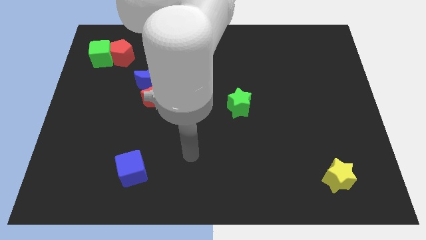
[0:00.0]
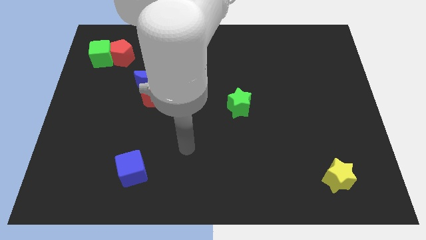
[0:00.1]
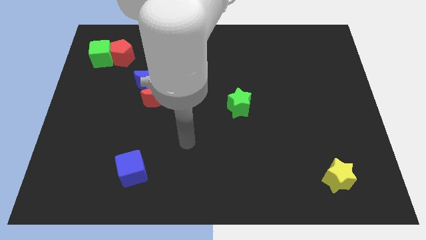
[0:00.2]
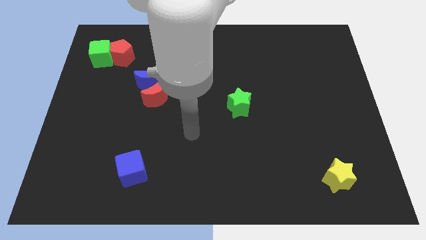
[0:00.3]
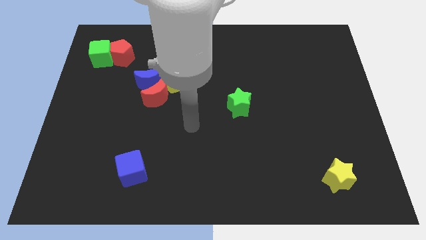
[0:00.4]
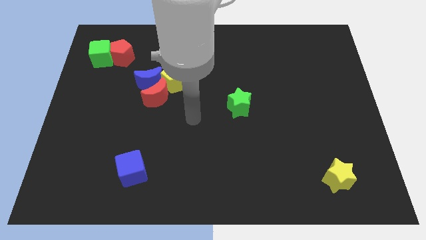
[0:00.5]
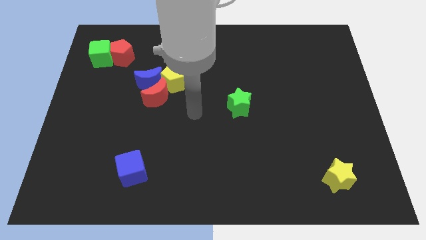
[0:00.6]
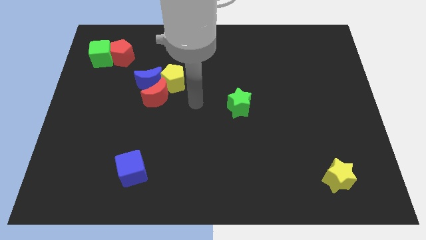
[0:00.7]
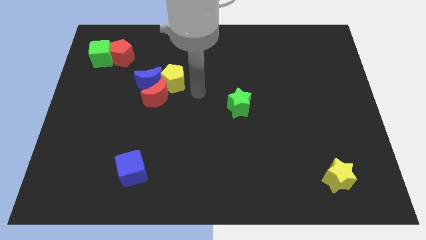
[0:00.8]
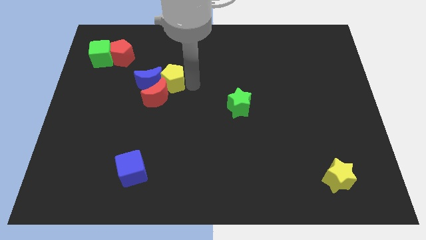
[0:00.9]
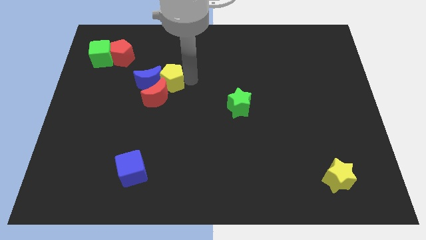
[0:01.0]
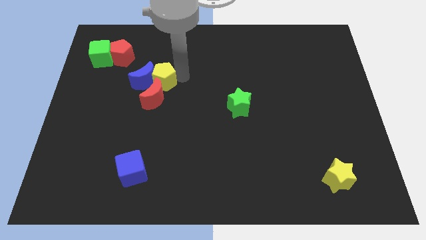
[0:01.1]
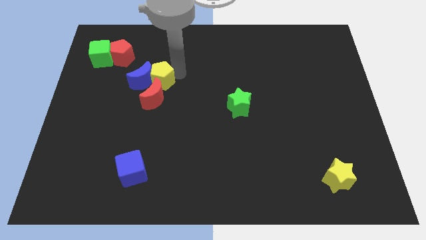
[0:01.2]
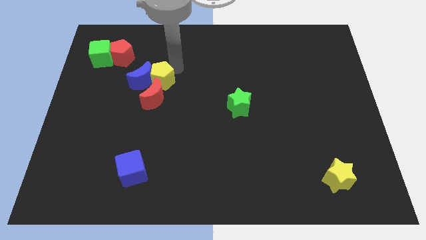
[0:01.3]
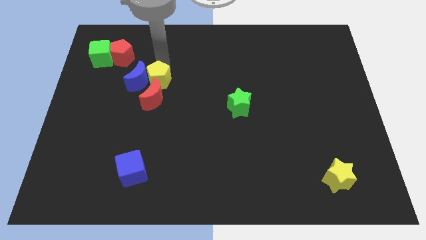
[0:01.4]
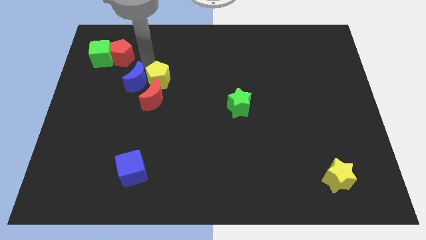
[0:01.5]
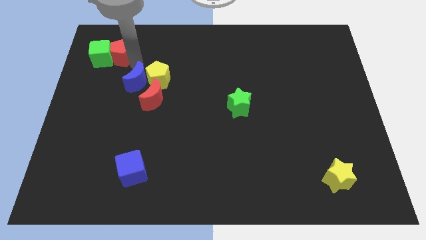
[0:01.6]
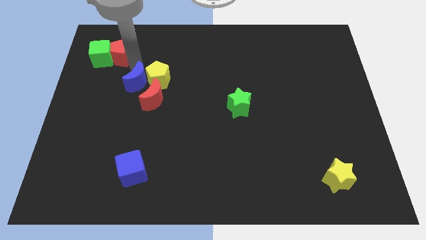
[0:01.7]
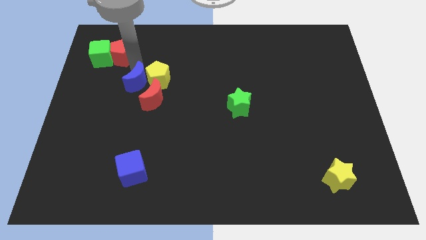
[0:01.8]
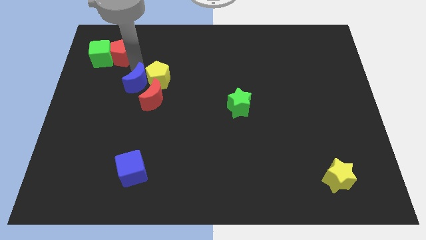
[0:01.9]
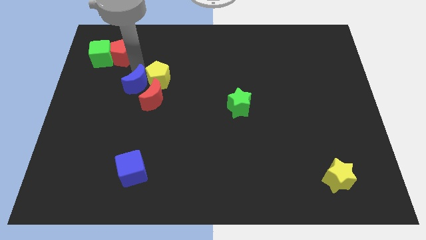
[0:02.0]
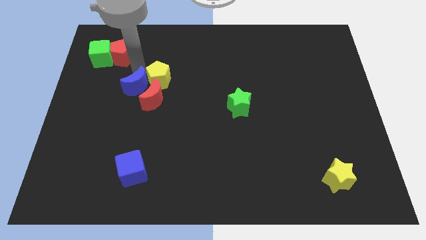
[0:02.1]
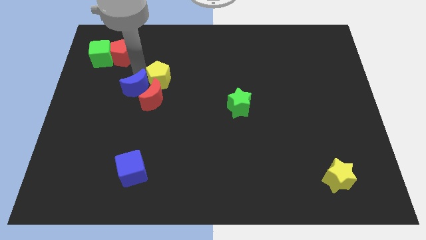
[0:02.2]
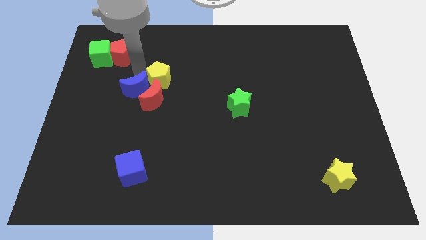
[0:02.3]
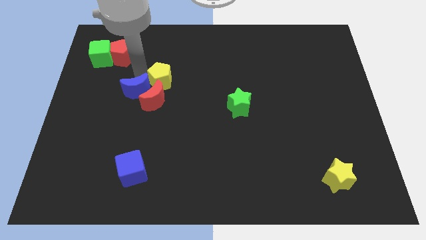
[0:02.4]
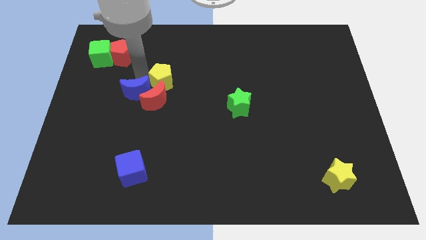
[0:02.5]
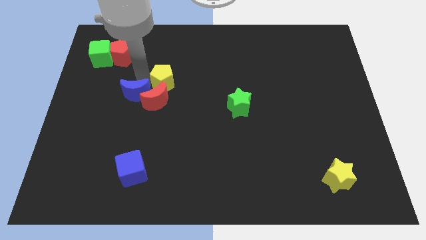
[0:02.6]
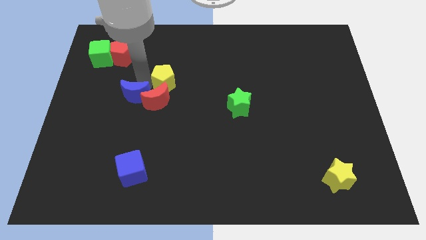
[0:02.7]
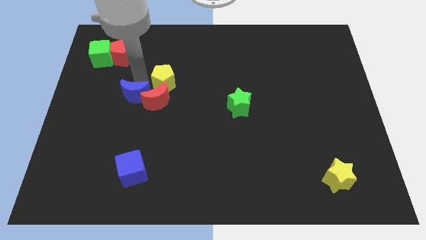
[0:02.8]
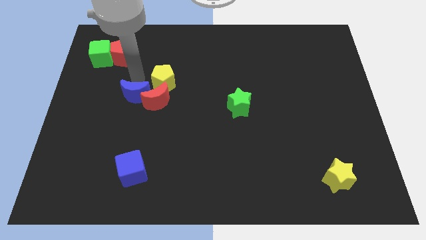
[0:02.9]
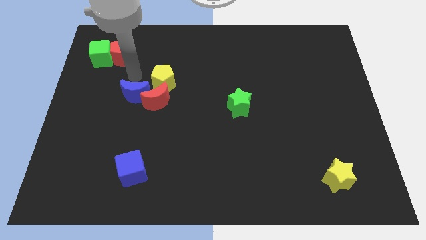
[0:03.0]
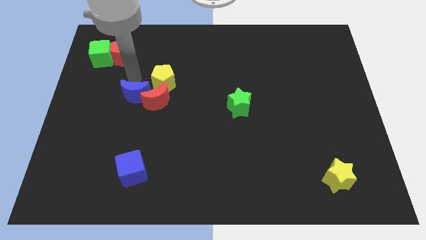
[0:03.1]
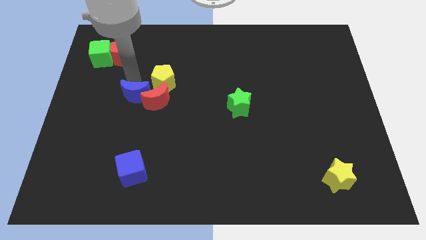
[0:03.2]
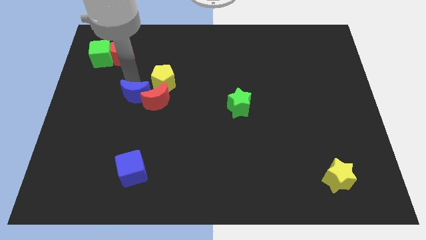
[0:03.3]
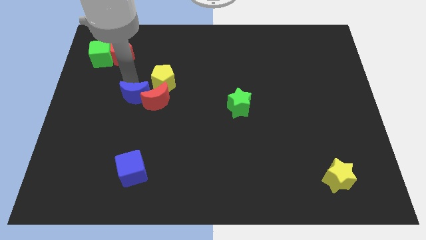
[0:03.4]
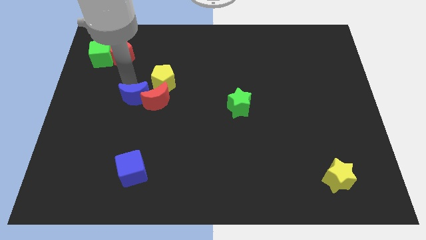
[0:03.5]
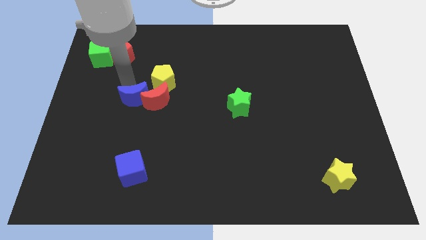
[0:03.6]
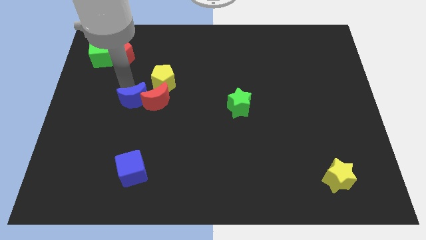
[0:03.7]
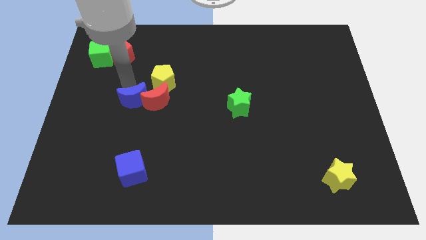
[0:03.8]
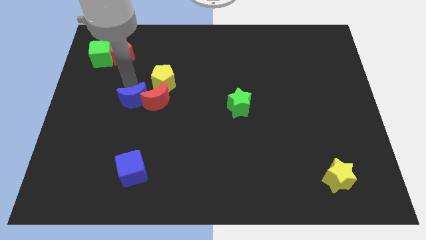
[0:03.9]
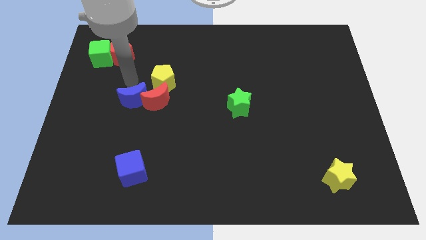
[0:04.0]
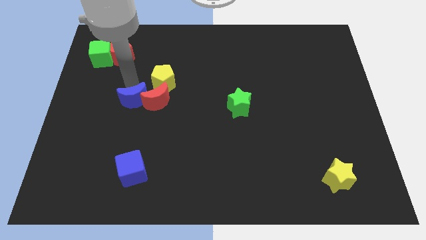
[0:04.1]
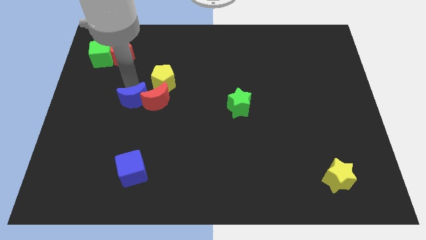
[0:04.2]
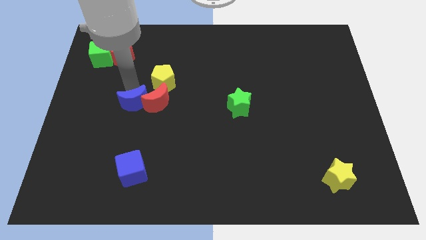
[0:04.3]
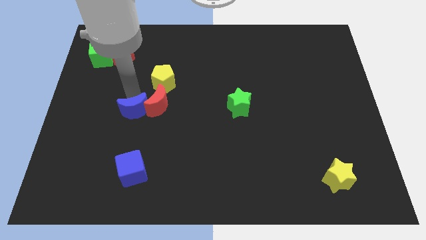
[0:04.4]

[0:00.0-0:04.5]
slide the blue moon downwards a little

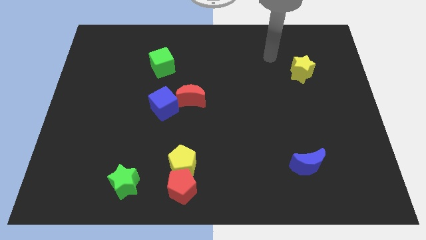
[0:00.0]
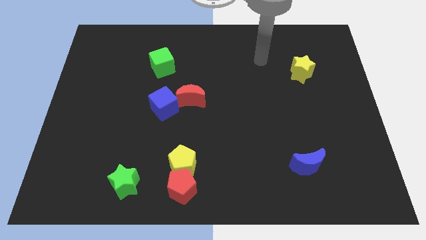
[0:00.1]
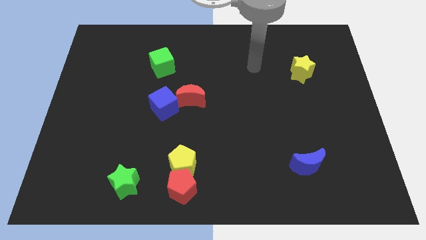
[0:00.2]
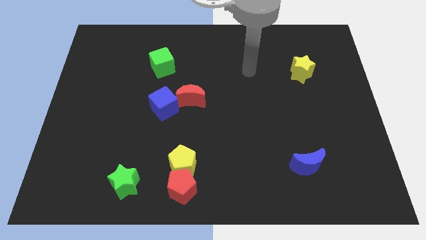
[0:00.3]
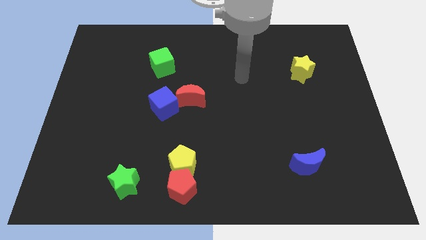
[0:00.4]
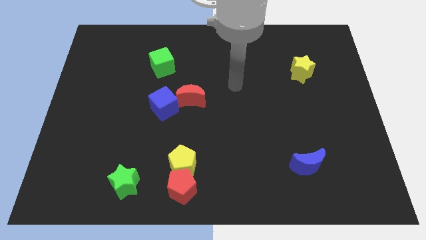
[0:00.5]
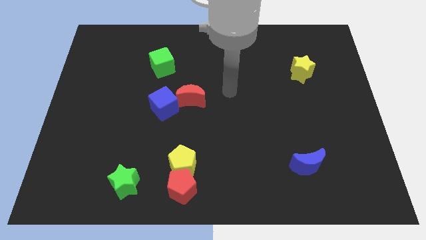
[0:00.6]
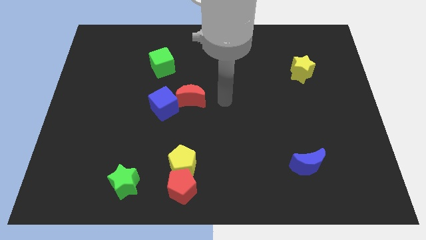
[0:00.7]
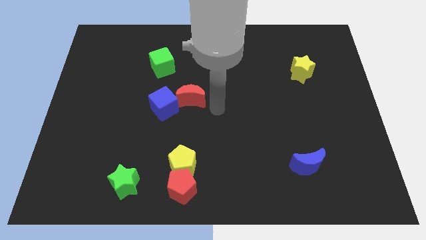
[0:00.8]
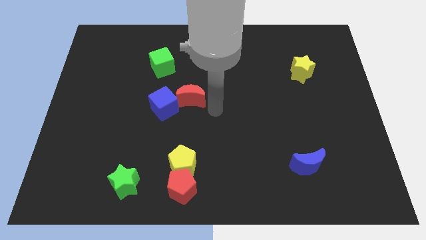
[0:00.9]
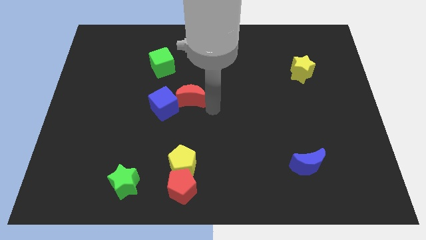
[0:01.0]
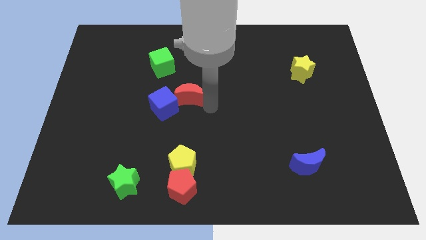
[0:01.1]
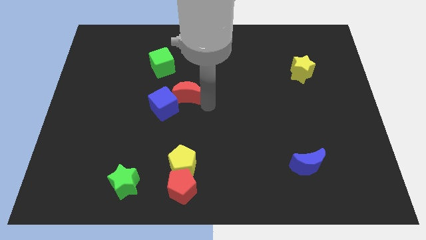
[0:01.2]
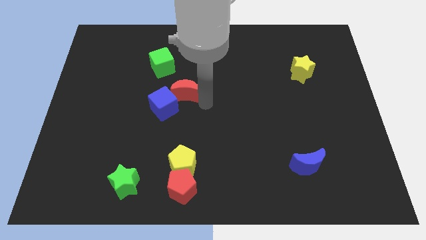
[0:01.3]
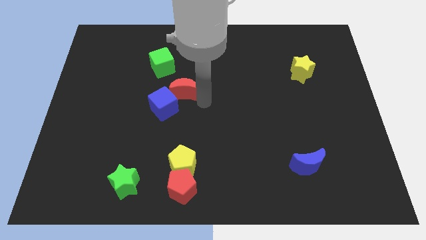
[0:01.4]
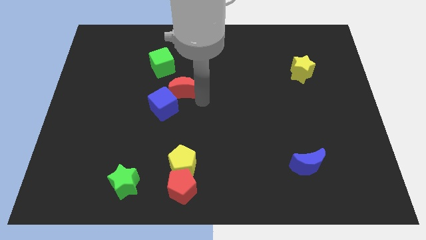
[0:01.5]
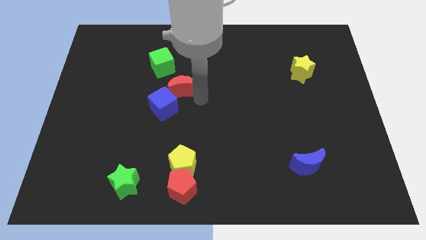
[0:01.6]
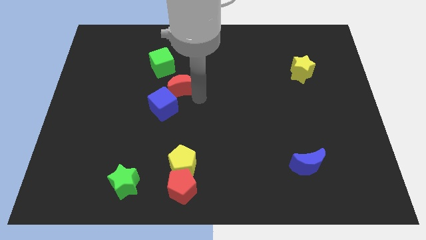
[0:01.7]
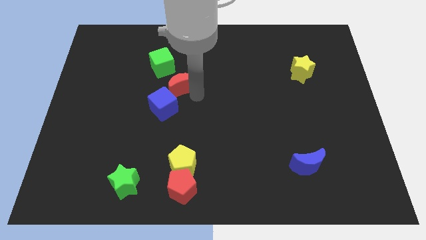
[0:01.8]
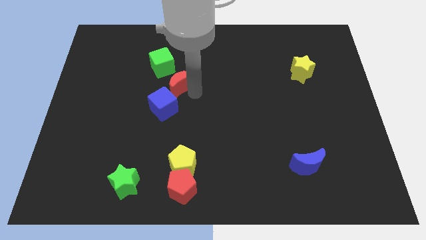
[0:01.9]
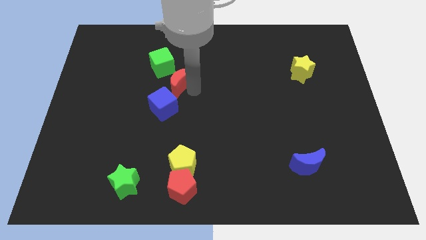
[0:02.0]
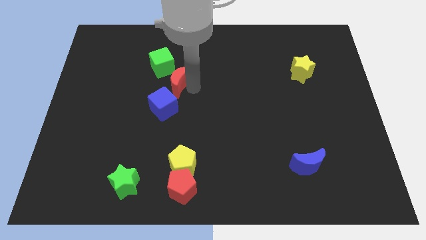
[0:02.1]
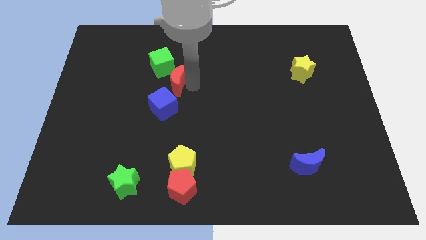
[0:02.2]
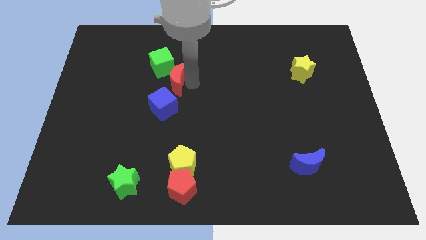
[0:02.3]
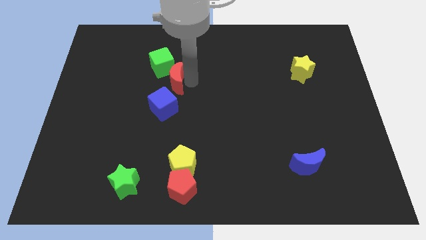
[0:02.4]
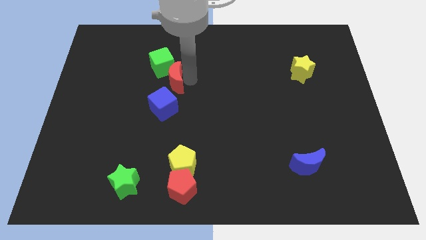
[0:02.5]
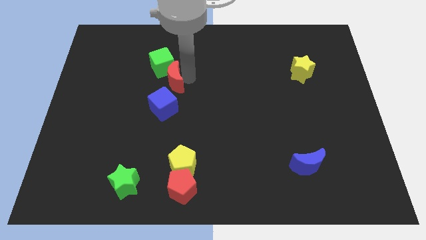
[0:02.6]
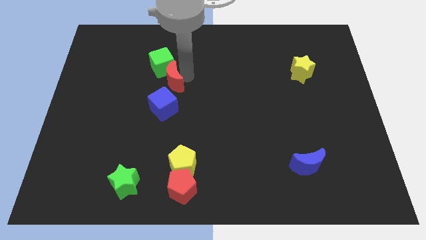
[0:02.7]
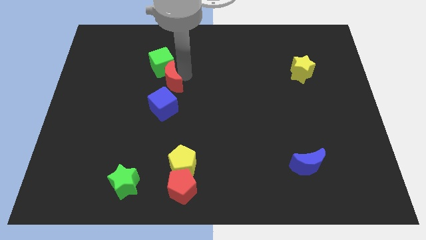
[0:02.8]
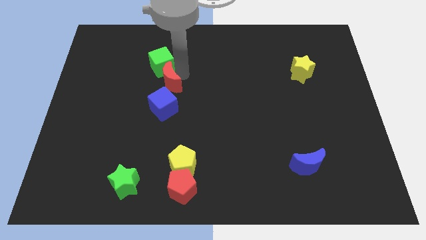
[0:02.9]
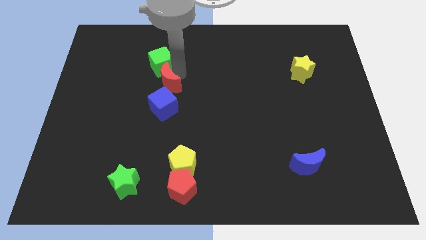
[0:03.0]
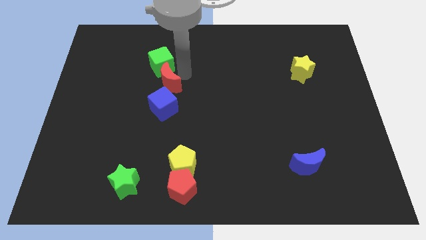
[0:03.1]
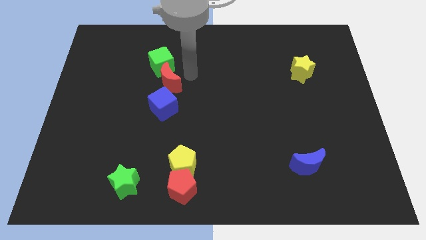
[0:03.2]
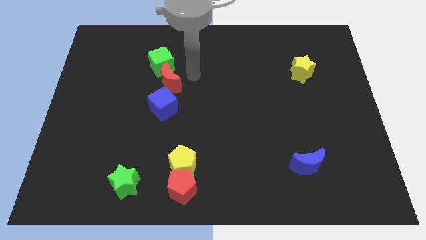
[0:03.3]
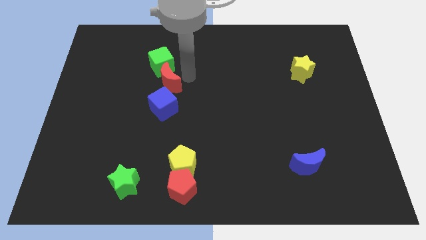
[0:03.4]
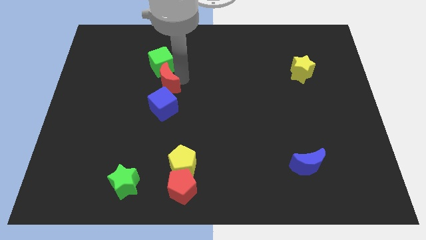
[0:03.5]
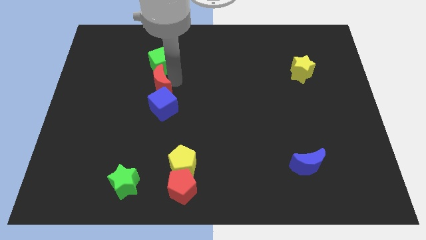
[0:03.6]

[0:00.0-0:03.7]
move the red moon to the left a little bit
